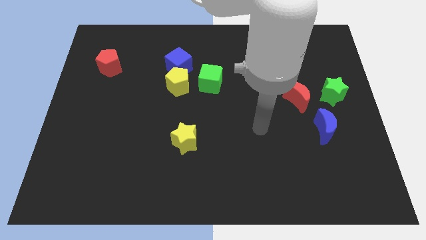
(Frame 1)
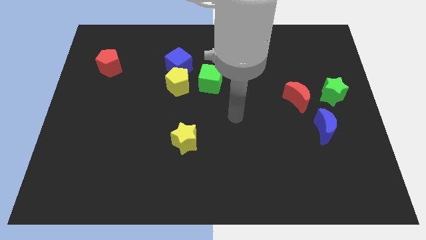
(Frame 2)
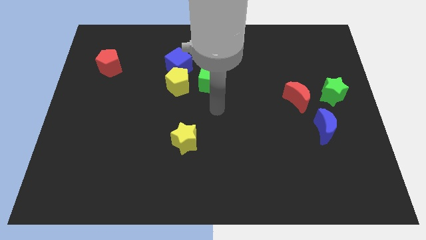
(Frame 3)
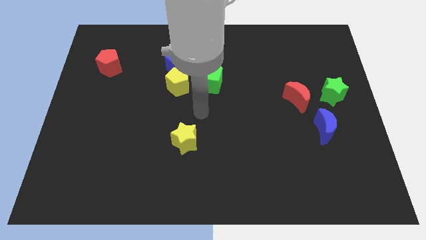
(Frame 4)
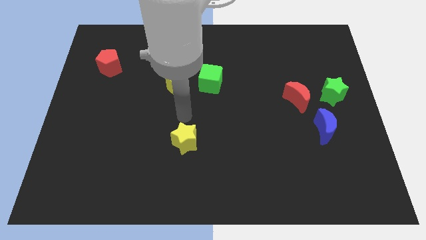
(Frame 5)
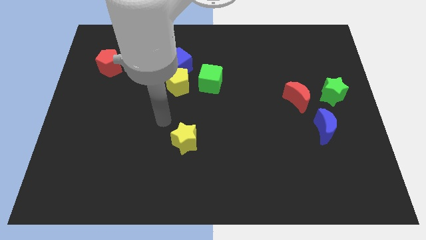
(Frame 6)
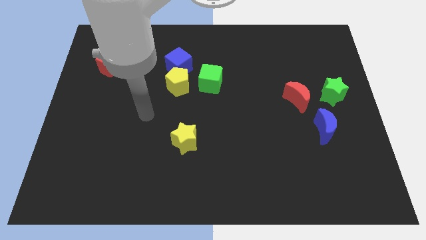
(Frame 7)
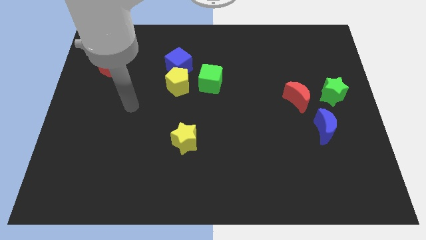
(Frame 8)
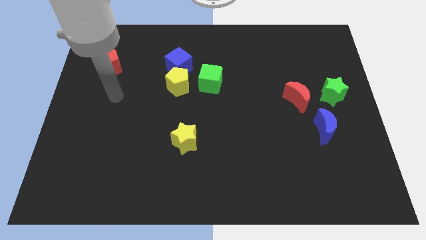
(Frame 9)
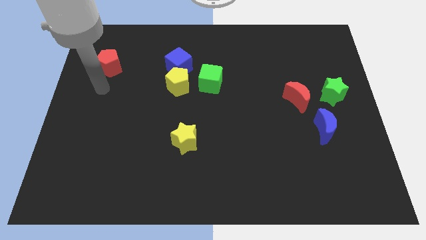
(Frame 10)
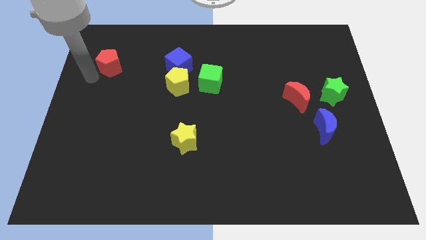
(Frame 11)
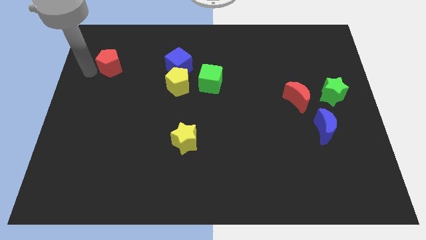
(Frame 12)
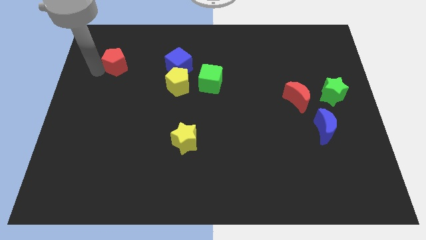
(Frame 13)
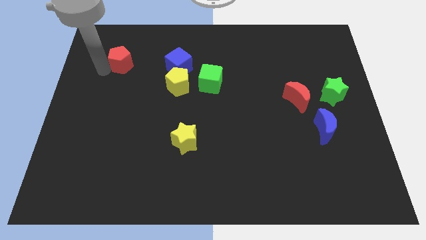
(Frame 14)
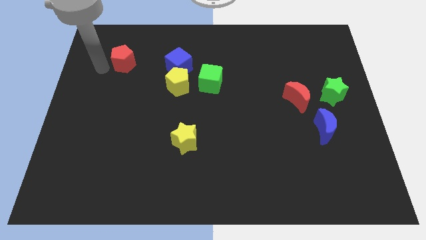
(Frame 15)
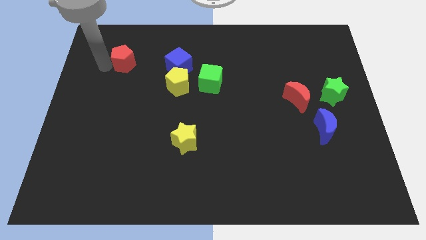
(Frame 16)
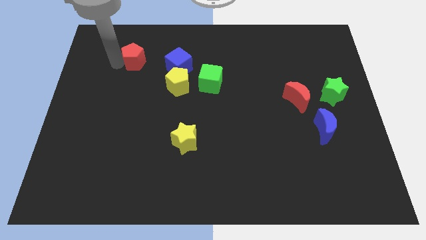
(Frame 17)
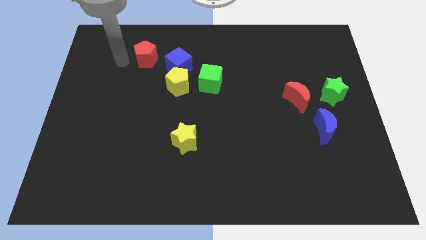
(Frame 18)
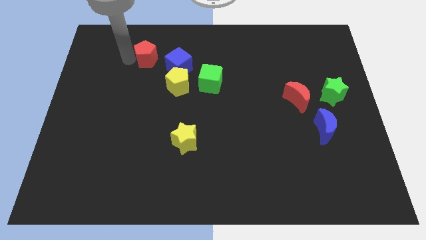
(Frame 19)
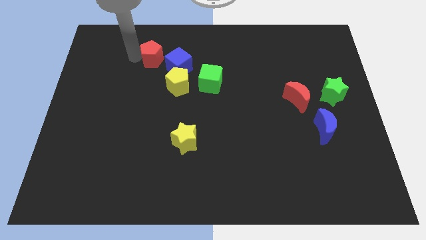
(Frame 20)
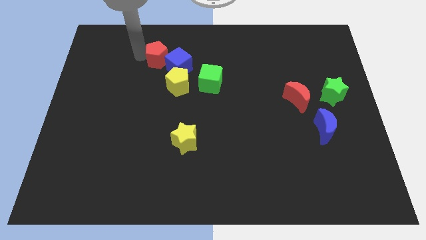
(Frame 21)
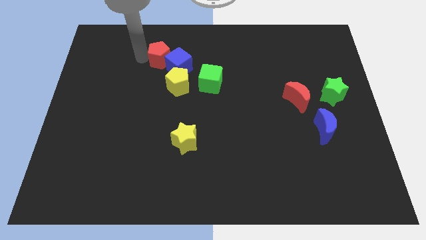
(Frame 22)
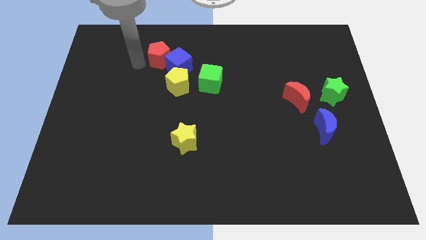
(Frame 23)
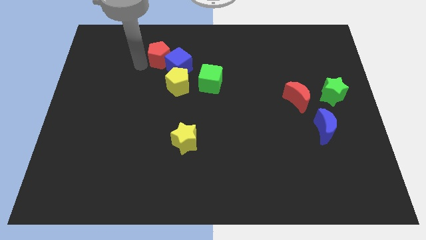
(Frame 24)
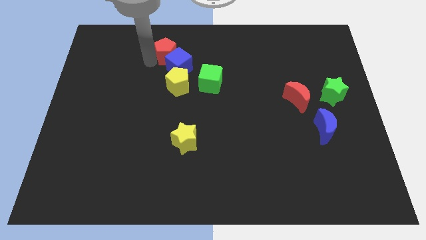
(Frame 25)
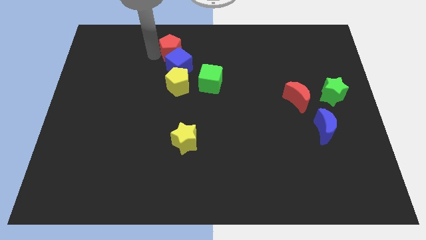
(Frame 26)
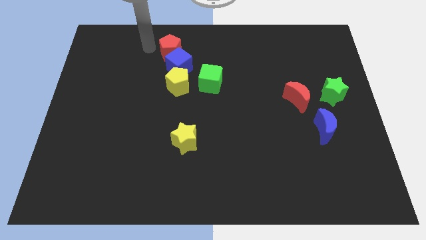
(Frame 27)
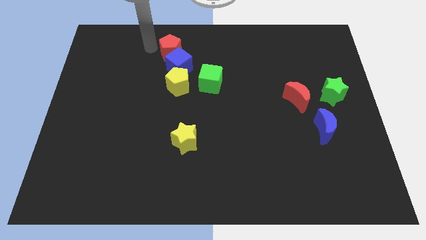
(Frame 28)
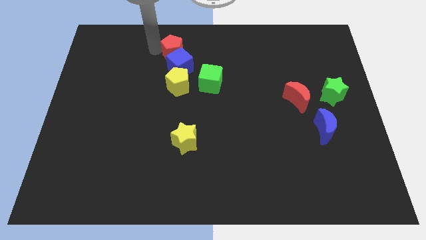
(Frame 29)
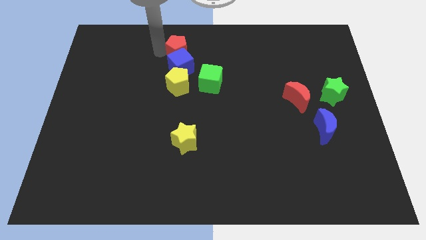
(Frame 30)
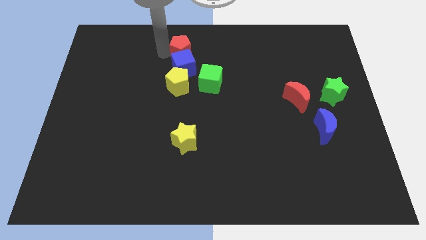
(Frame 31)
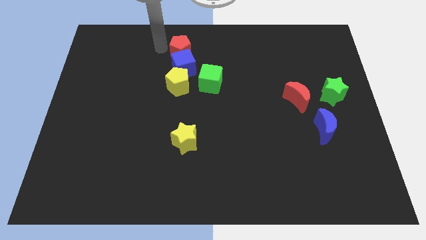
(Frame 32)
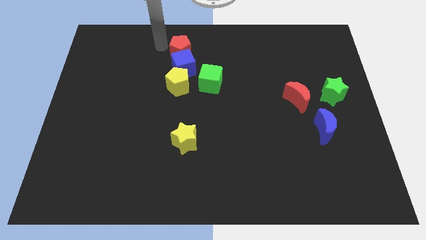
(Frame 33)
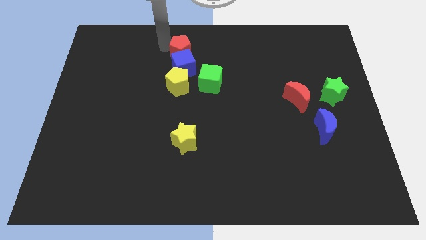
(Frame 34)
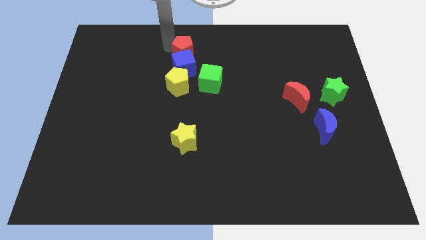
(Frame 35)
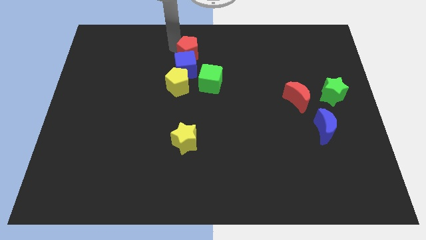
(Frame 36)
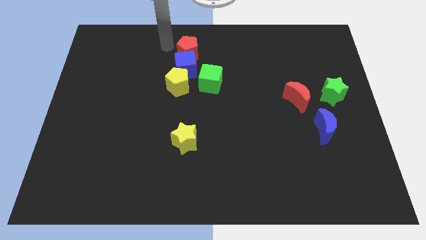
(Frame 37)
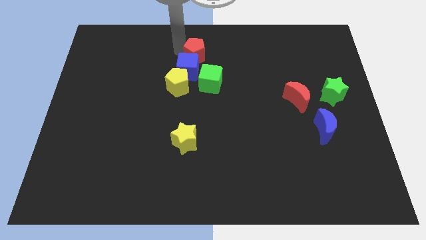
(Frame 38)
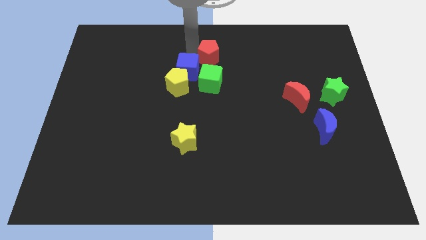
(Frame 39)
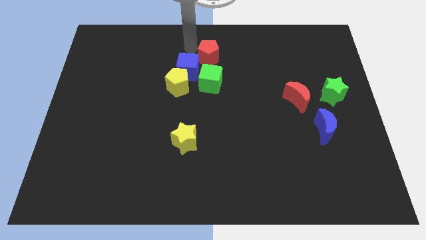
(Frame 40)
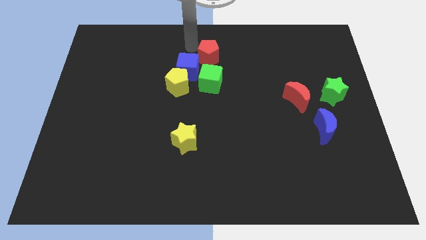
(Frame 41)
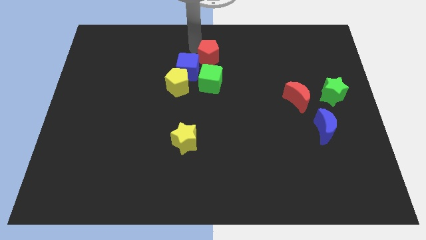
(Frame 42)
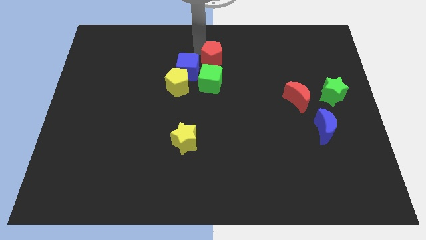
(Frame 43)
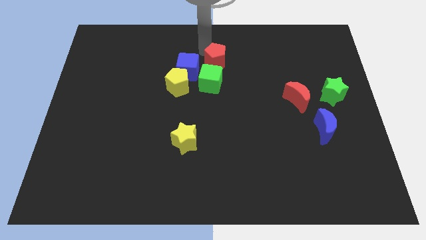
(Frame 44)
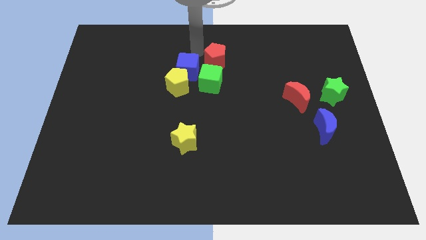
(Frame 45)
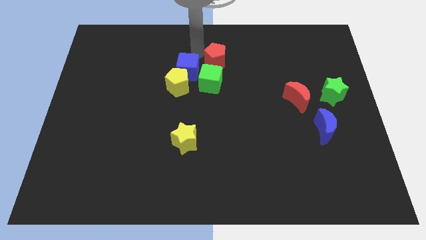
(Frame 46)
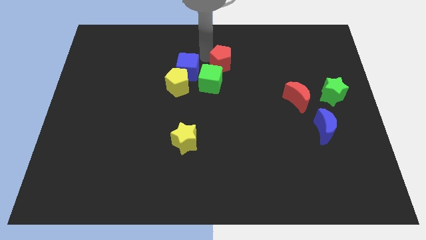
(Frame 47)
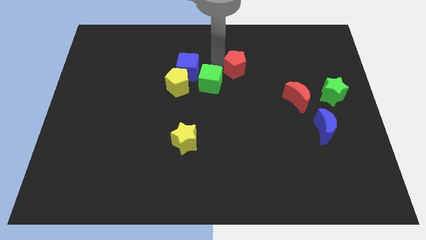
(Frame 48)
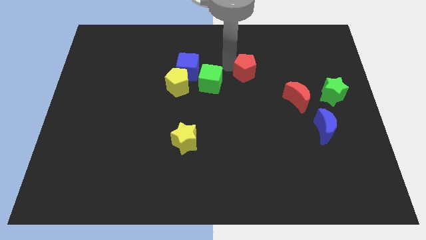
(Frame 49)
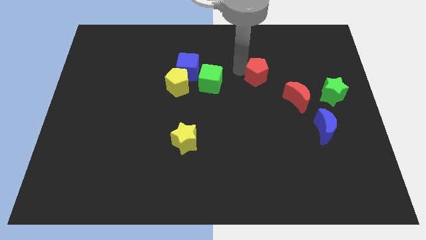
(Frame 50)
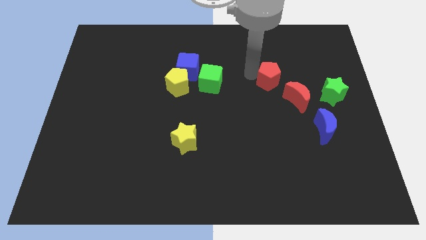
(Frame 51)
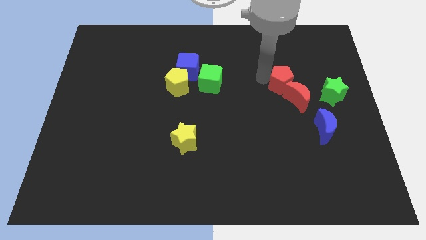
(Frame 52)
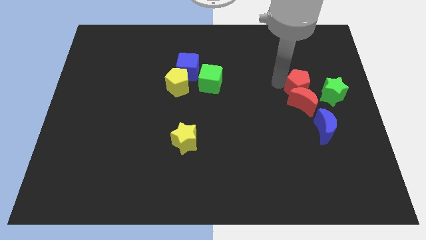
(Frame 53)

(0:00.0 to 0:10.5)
push the red pentagon to the top of the blue moon

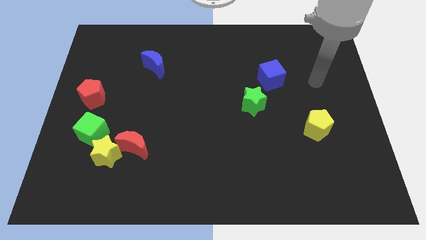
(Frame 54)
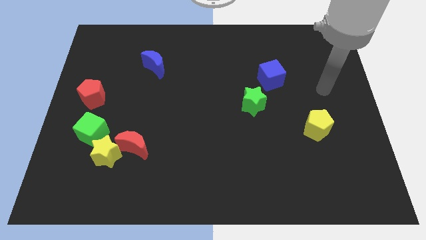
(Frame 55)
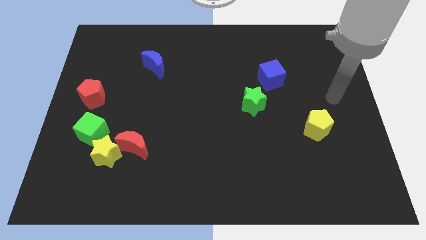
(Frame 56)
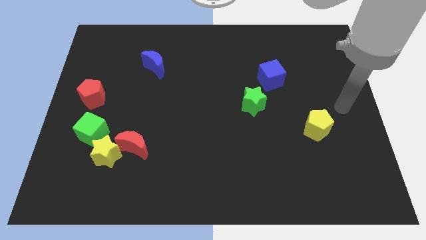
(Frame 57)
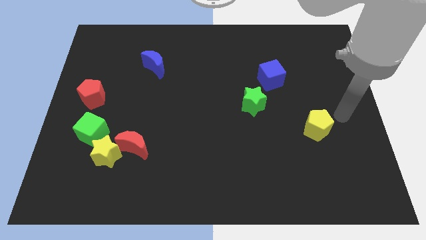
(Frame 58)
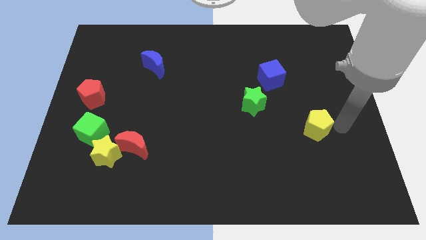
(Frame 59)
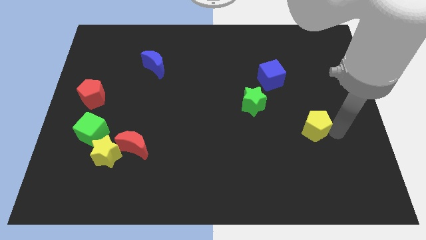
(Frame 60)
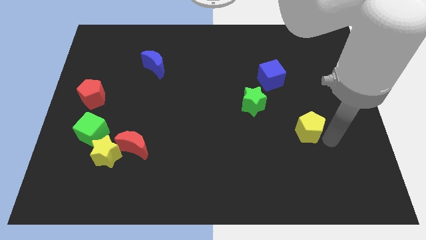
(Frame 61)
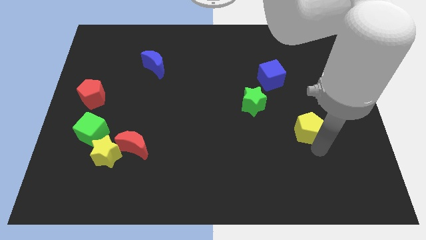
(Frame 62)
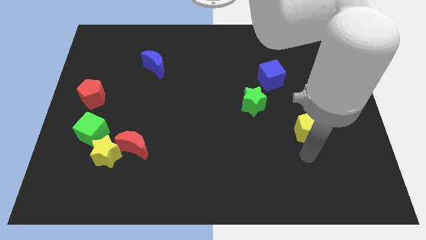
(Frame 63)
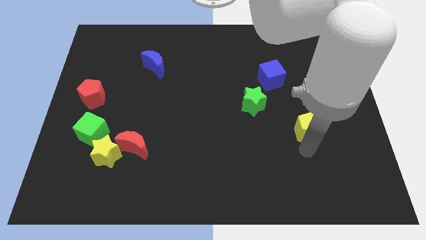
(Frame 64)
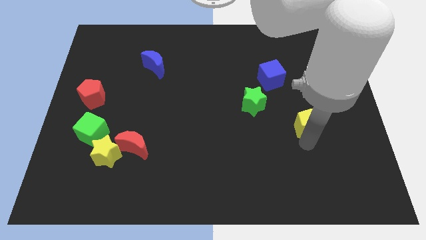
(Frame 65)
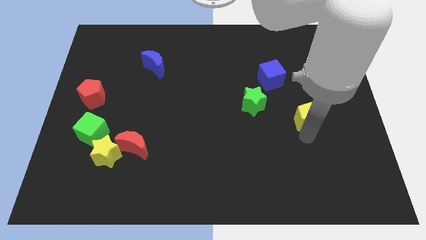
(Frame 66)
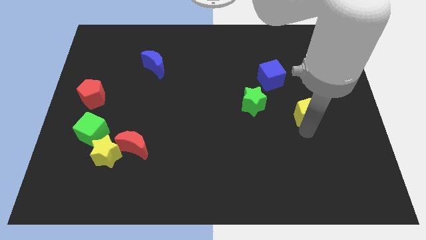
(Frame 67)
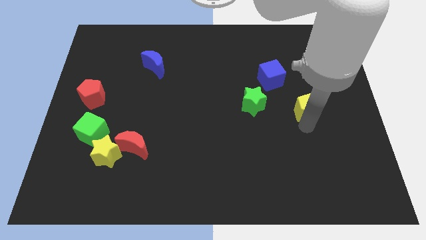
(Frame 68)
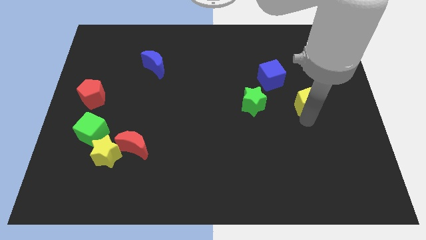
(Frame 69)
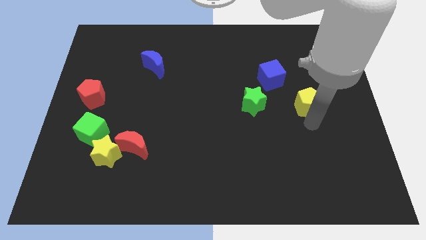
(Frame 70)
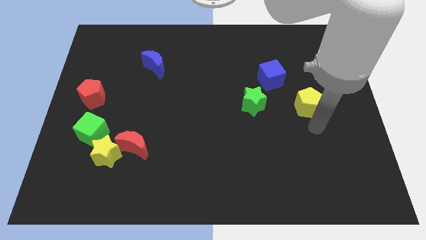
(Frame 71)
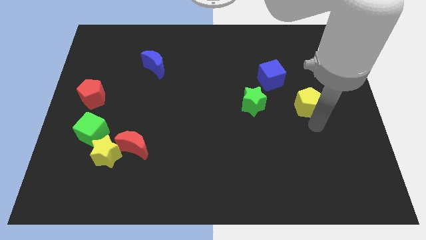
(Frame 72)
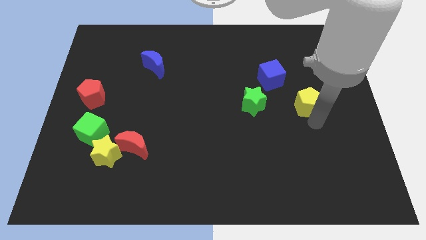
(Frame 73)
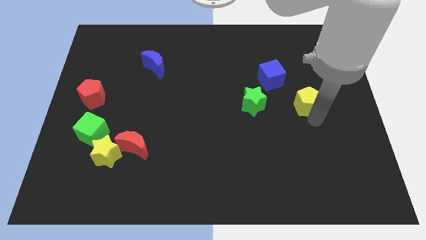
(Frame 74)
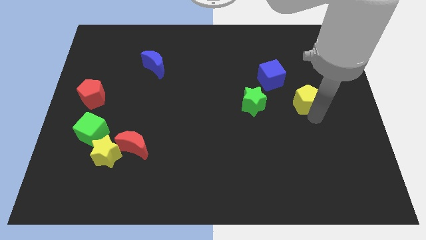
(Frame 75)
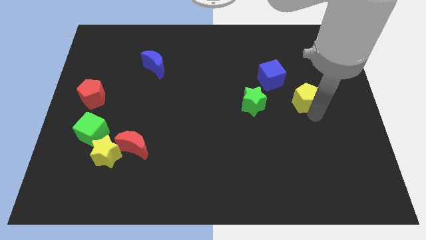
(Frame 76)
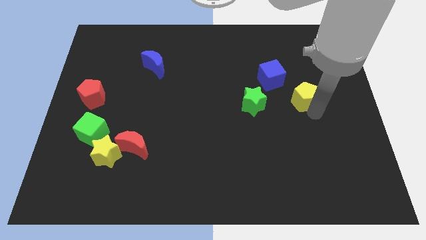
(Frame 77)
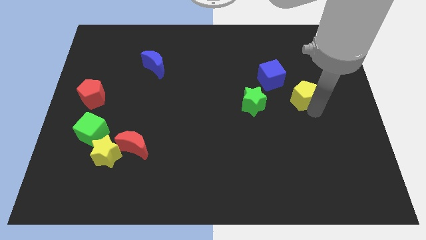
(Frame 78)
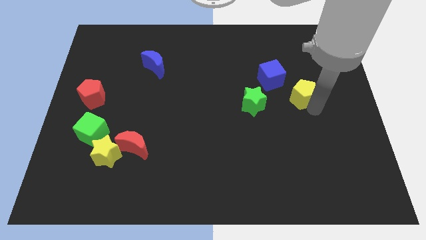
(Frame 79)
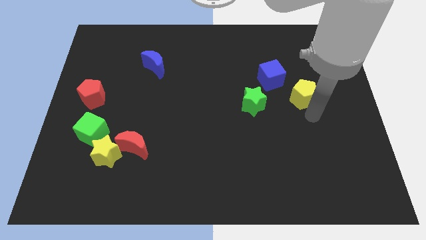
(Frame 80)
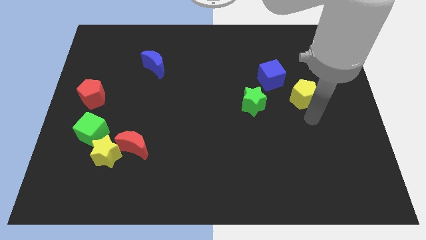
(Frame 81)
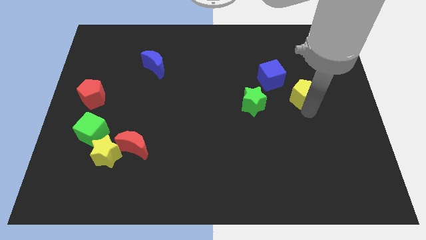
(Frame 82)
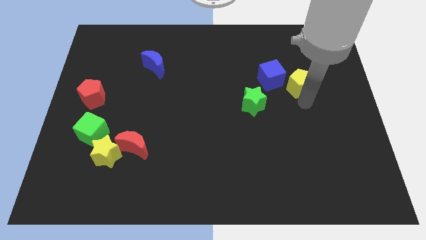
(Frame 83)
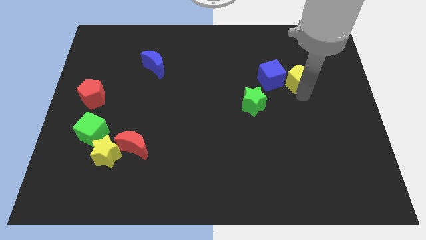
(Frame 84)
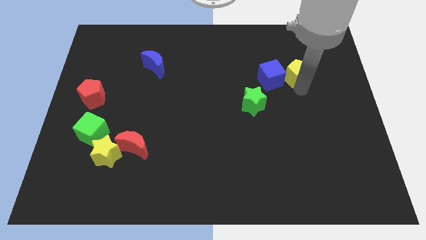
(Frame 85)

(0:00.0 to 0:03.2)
push the yellow pentagon to the top right side of the blue cube

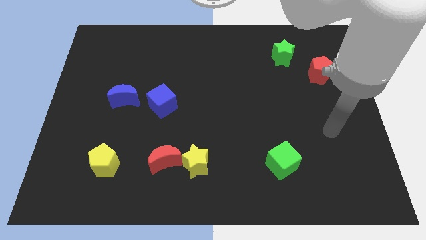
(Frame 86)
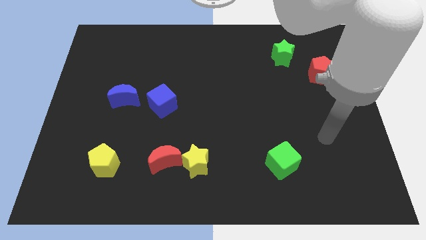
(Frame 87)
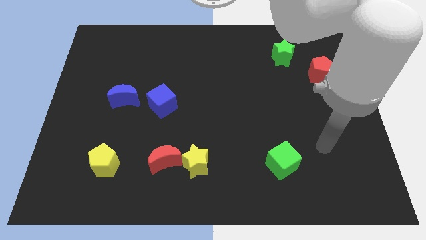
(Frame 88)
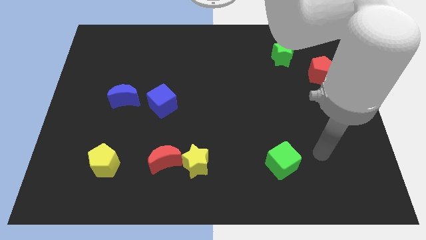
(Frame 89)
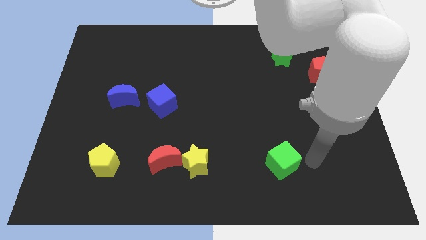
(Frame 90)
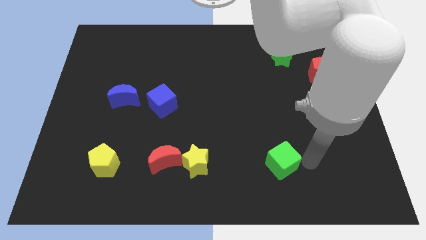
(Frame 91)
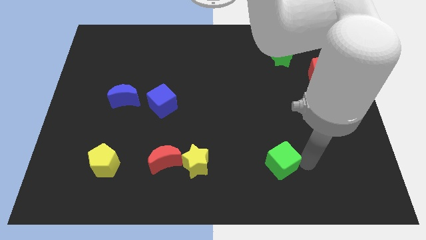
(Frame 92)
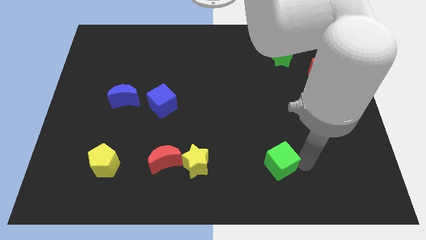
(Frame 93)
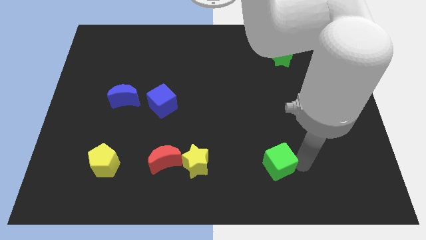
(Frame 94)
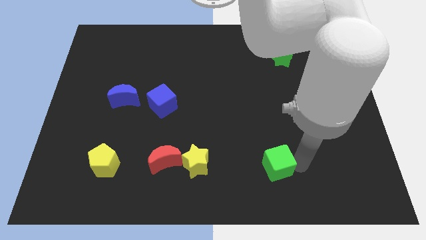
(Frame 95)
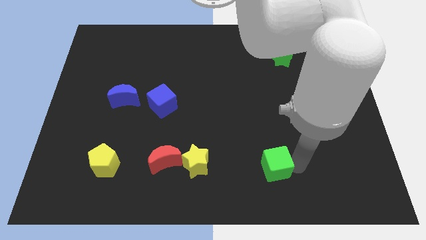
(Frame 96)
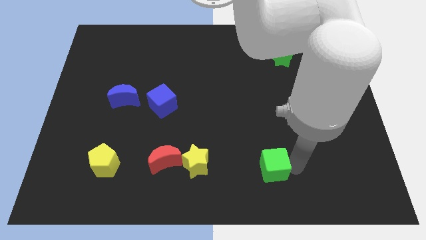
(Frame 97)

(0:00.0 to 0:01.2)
move the green cube just right of the yellow star
